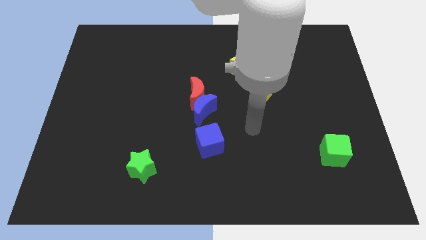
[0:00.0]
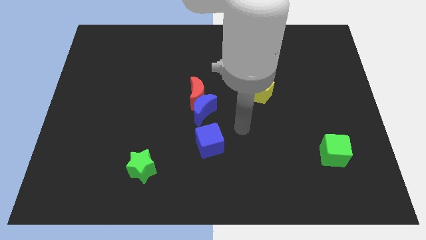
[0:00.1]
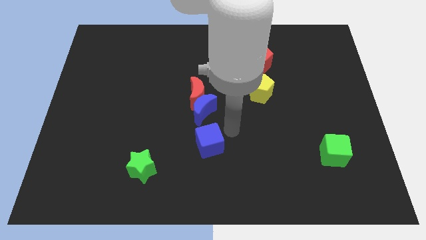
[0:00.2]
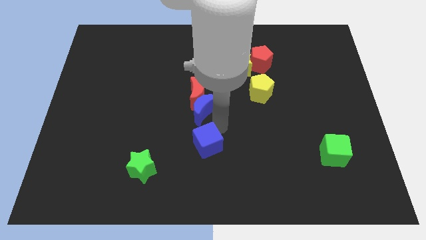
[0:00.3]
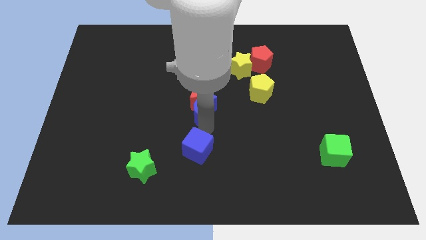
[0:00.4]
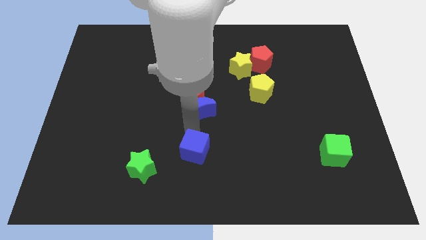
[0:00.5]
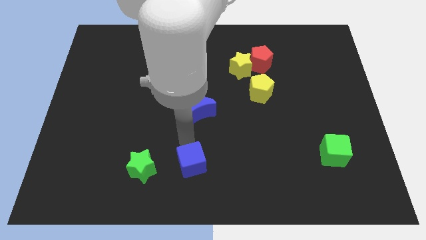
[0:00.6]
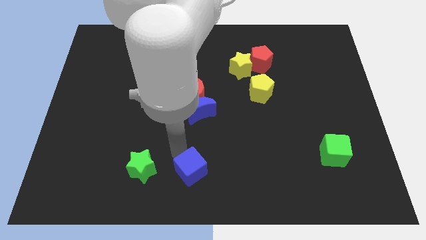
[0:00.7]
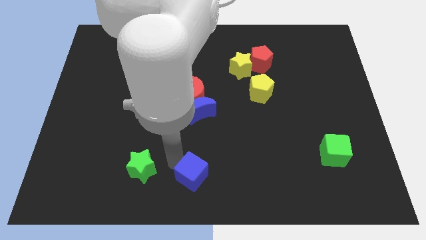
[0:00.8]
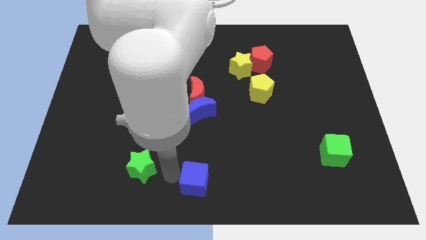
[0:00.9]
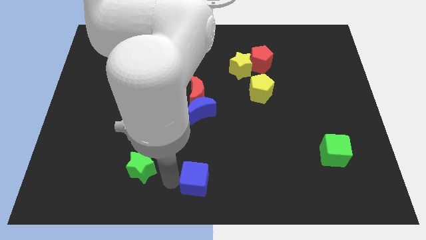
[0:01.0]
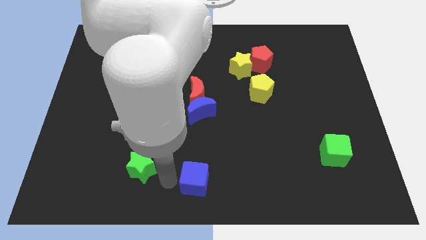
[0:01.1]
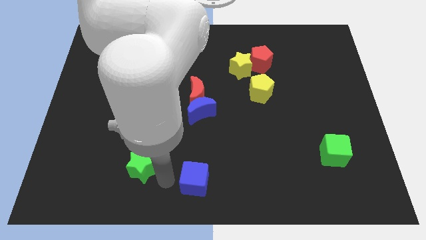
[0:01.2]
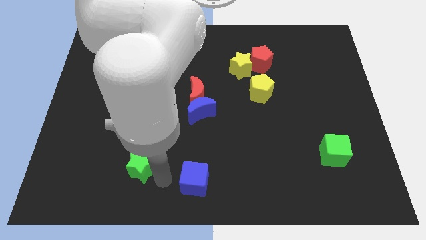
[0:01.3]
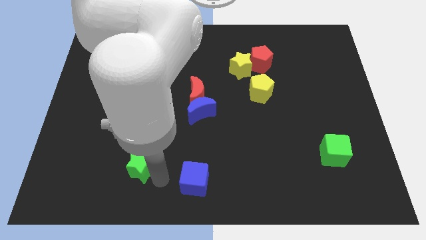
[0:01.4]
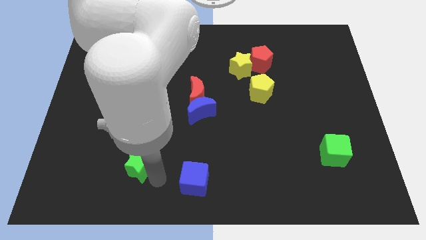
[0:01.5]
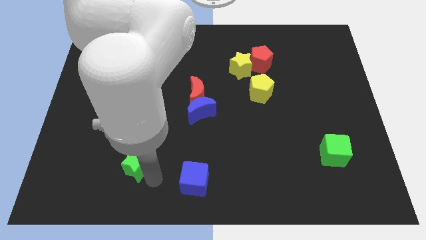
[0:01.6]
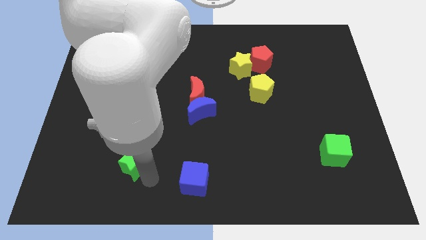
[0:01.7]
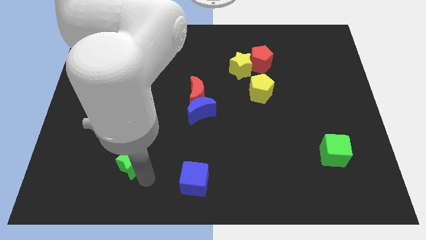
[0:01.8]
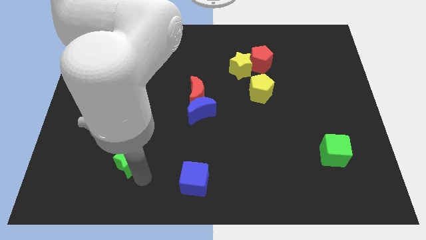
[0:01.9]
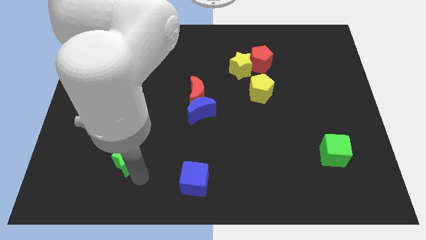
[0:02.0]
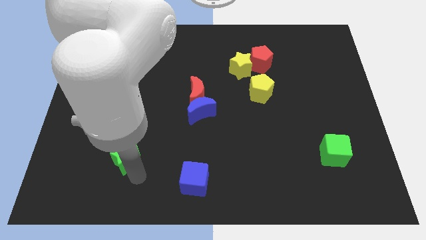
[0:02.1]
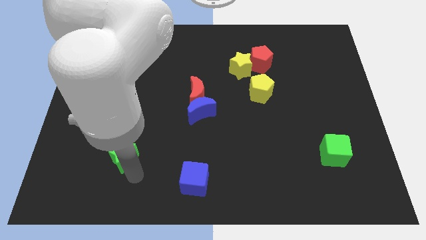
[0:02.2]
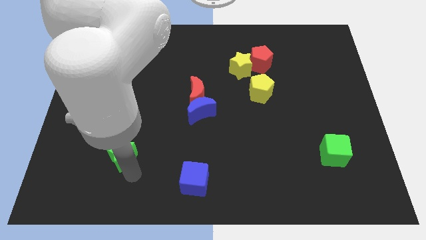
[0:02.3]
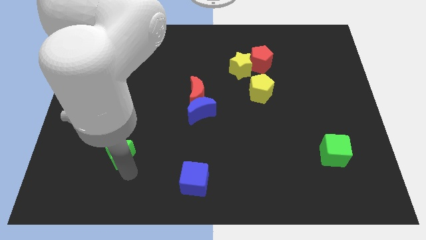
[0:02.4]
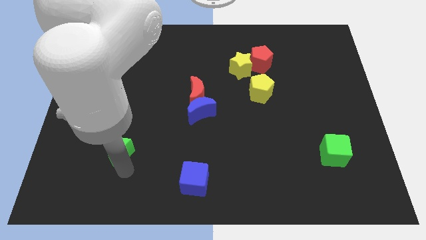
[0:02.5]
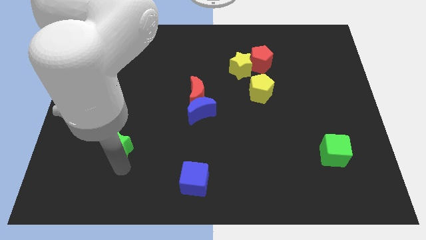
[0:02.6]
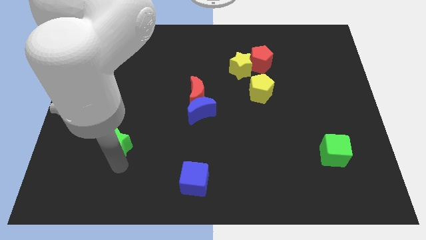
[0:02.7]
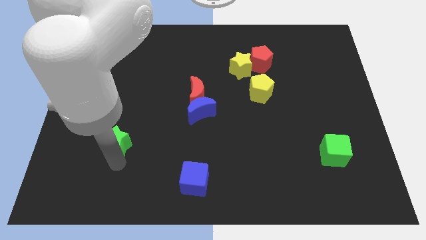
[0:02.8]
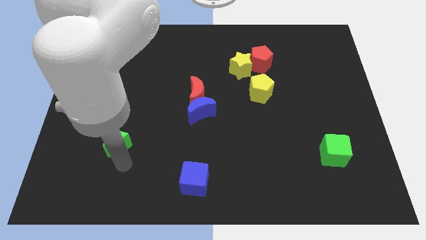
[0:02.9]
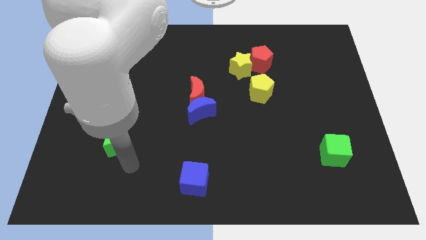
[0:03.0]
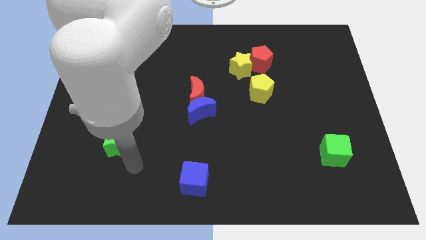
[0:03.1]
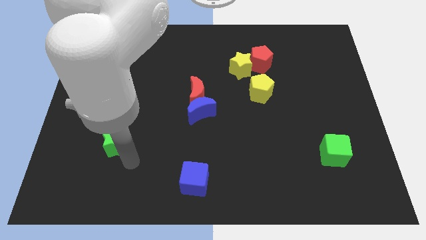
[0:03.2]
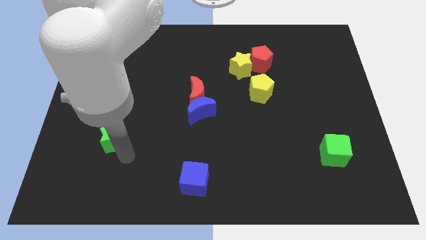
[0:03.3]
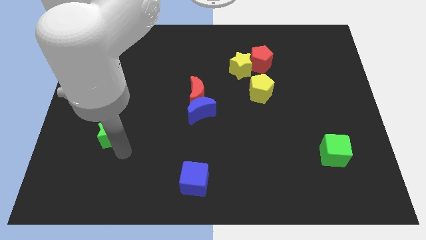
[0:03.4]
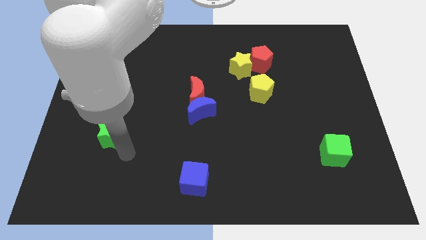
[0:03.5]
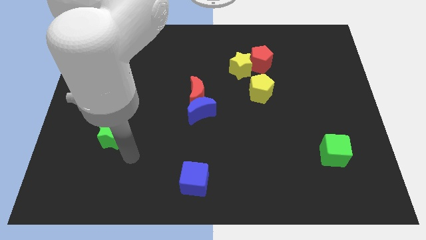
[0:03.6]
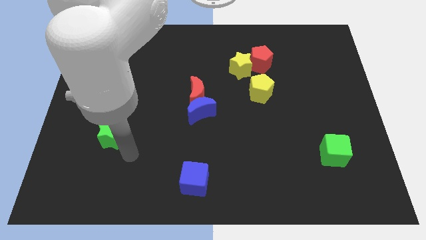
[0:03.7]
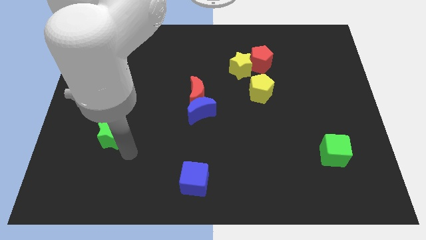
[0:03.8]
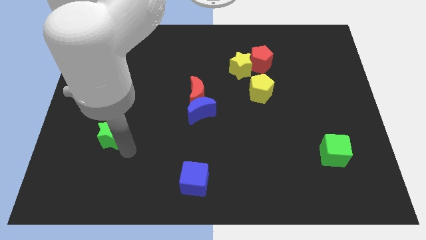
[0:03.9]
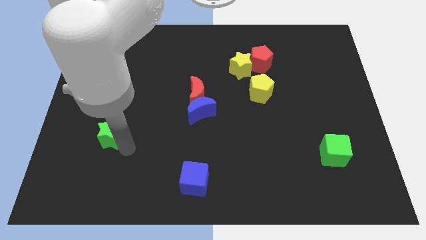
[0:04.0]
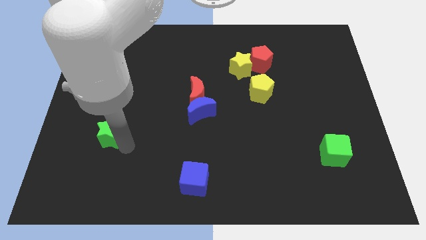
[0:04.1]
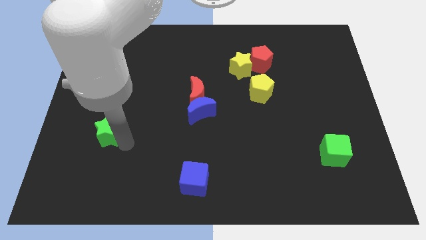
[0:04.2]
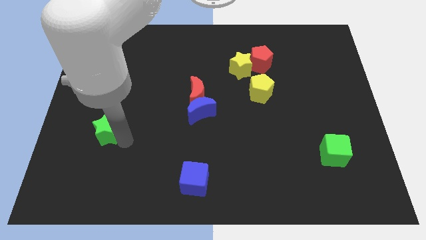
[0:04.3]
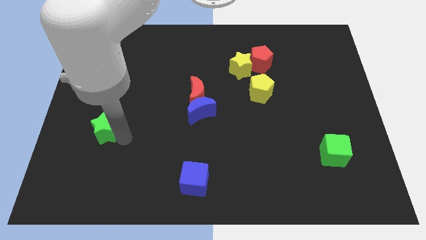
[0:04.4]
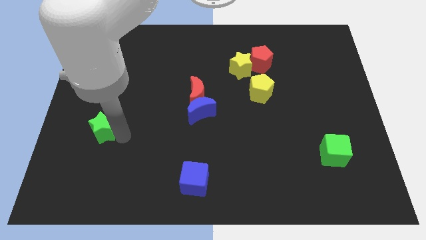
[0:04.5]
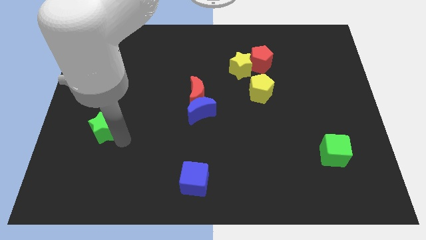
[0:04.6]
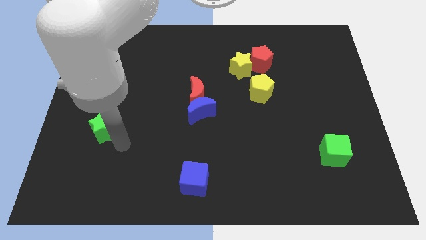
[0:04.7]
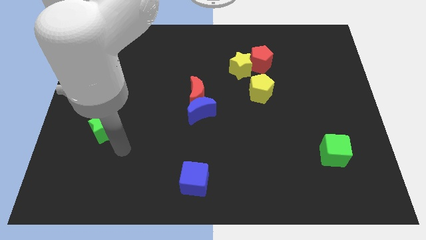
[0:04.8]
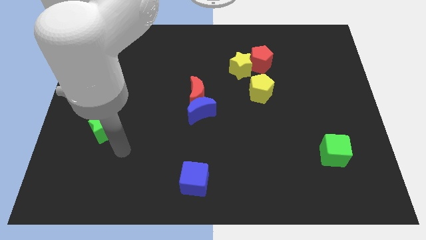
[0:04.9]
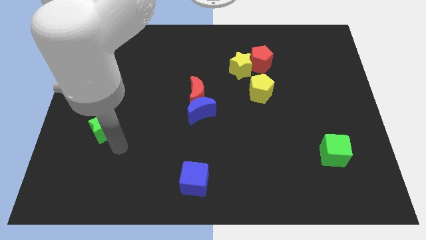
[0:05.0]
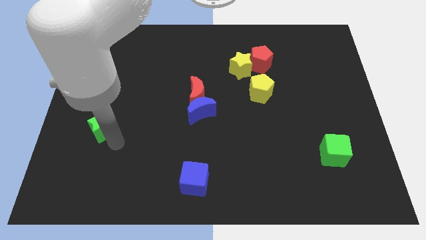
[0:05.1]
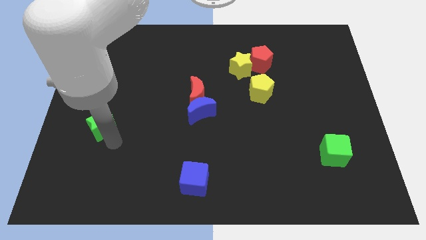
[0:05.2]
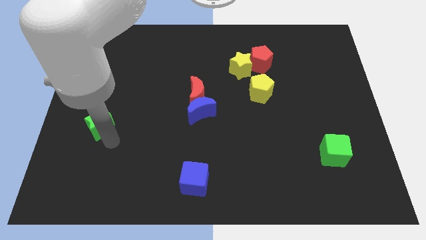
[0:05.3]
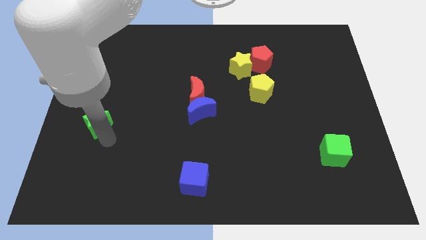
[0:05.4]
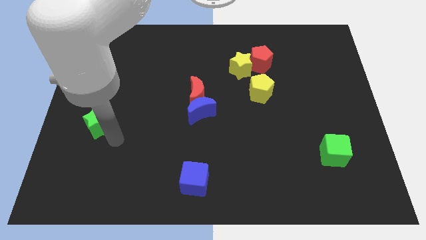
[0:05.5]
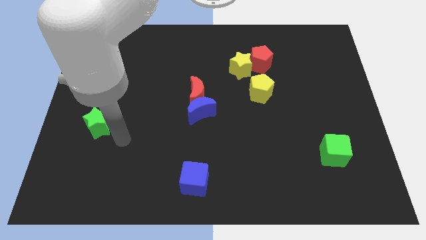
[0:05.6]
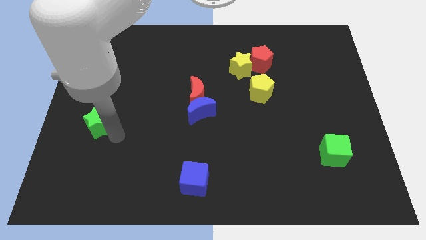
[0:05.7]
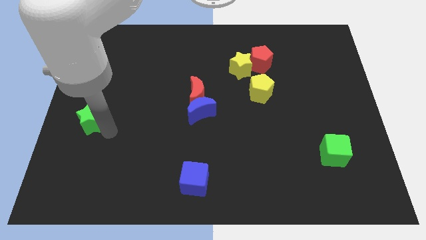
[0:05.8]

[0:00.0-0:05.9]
push the green star to the left side
